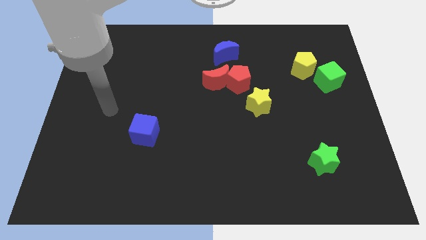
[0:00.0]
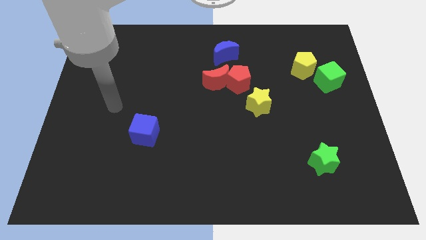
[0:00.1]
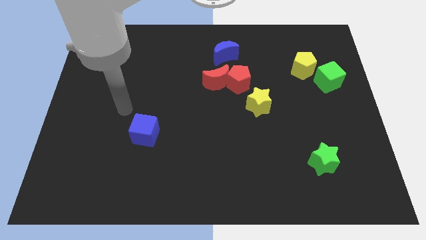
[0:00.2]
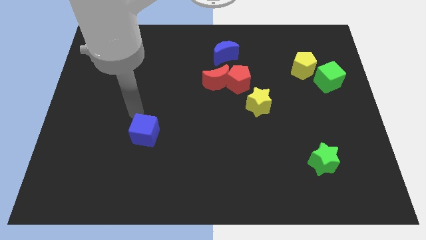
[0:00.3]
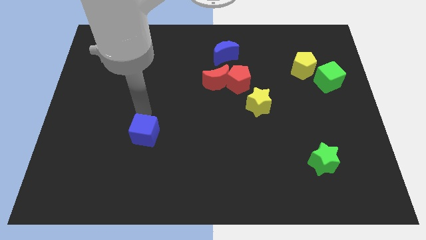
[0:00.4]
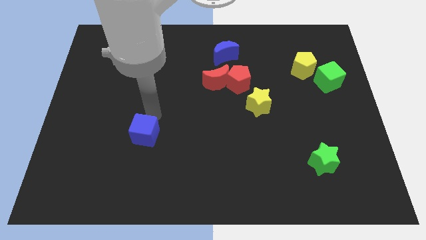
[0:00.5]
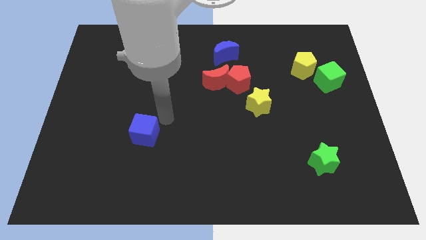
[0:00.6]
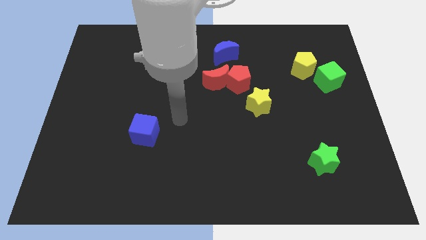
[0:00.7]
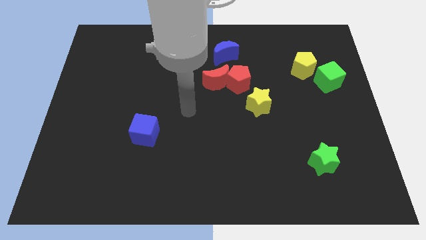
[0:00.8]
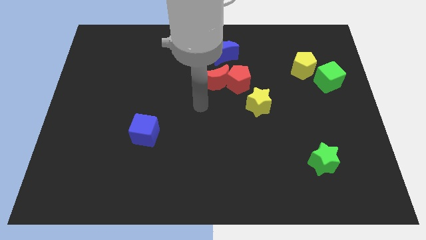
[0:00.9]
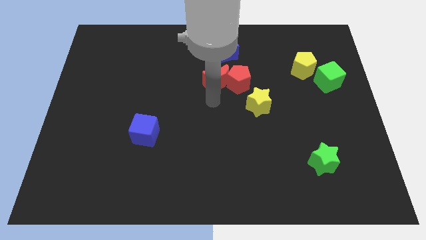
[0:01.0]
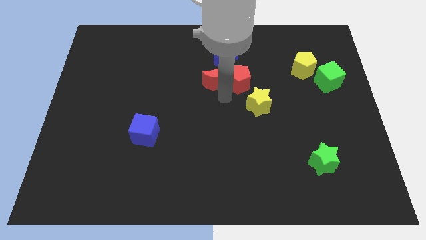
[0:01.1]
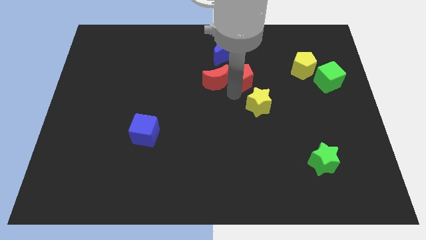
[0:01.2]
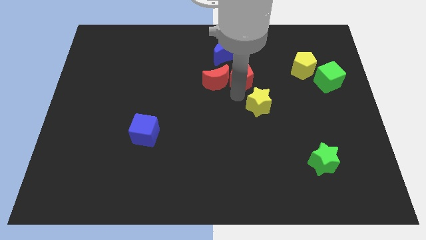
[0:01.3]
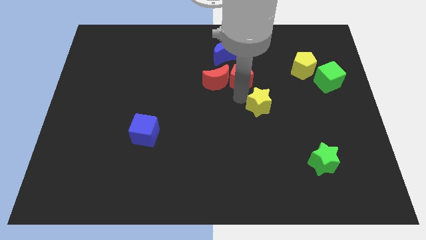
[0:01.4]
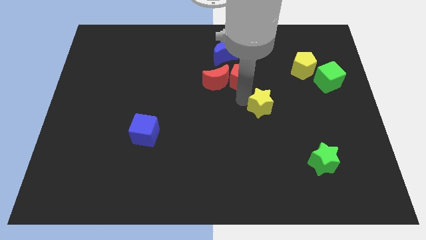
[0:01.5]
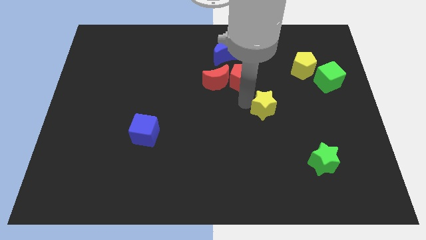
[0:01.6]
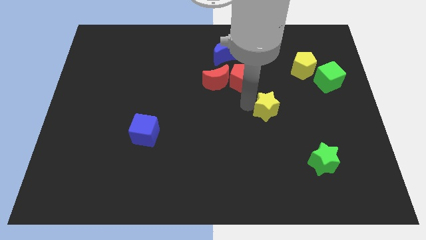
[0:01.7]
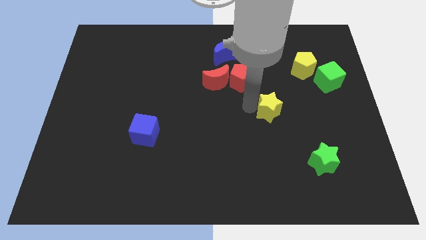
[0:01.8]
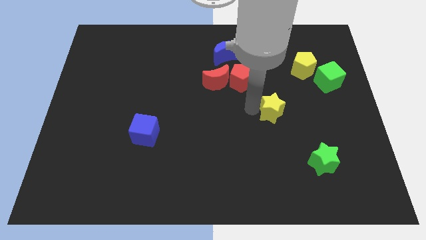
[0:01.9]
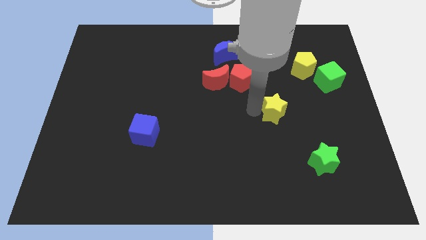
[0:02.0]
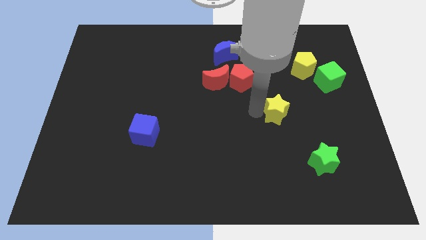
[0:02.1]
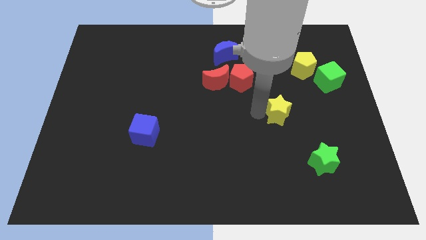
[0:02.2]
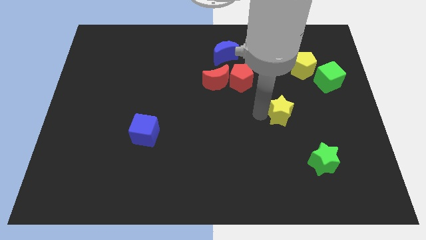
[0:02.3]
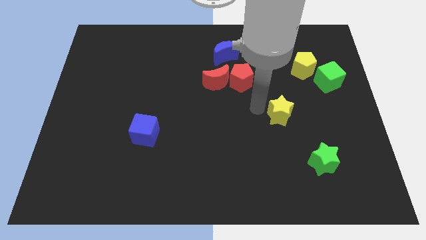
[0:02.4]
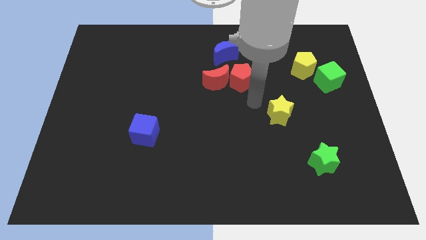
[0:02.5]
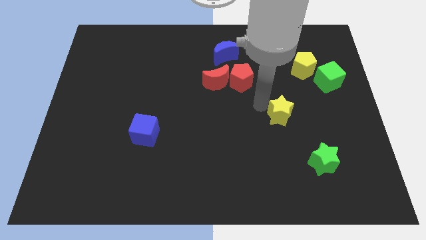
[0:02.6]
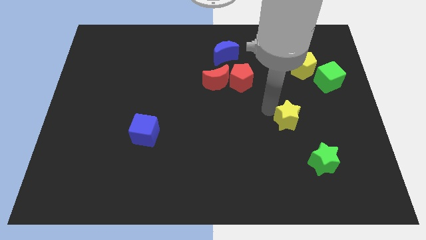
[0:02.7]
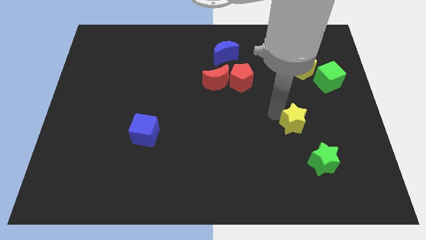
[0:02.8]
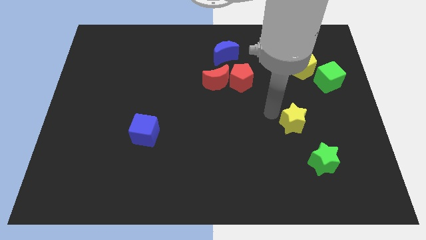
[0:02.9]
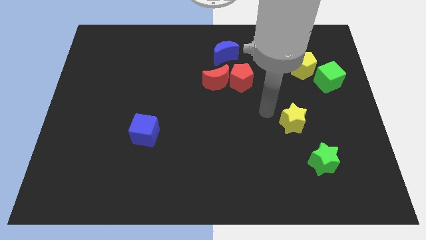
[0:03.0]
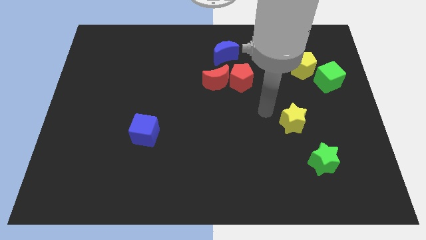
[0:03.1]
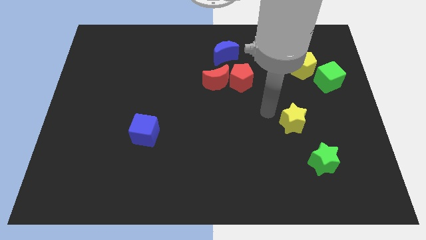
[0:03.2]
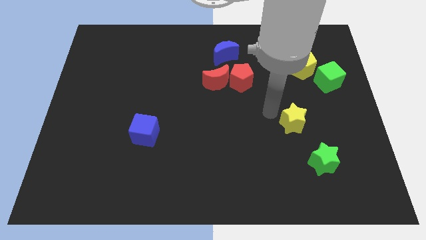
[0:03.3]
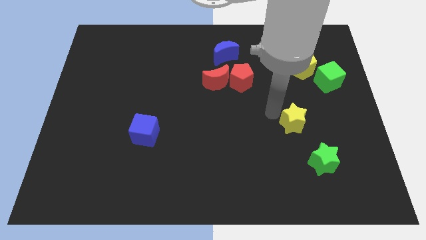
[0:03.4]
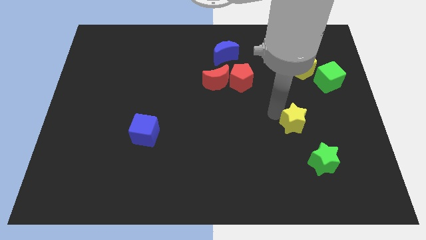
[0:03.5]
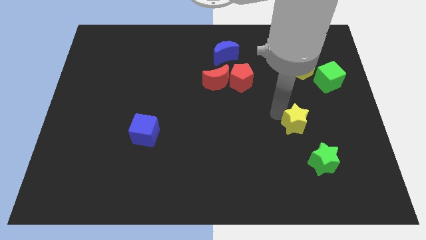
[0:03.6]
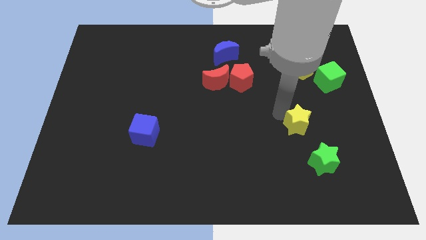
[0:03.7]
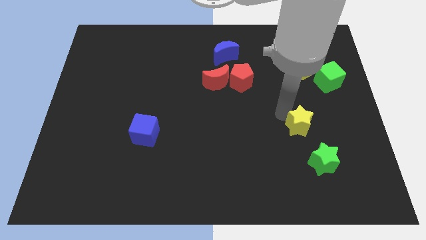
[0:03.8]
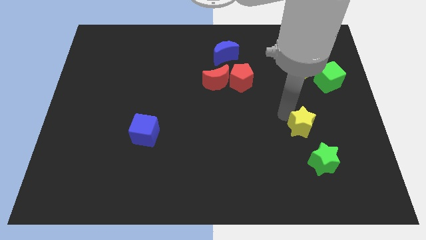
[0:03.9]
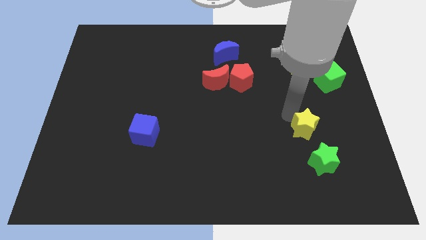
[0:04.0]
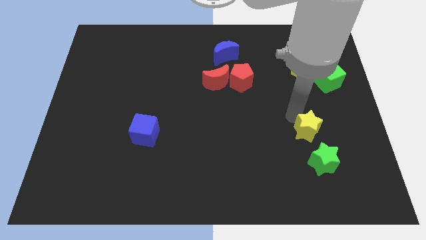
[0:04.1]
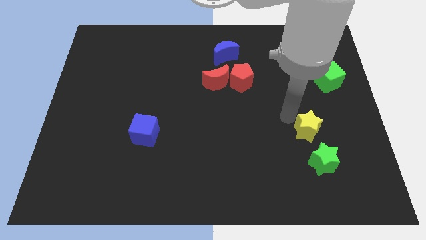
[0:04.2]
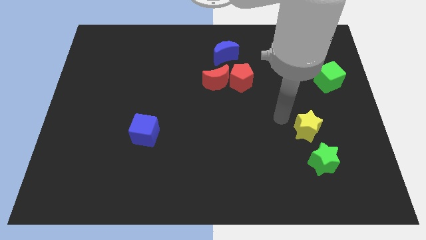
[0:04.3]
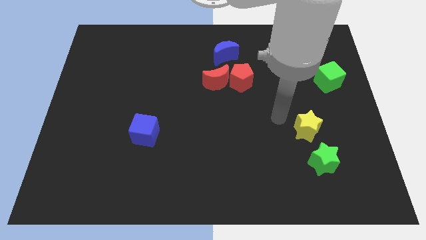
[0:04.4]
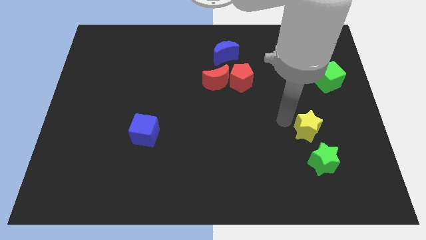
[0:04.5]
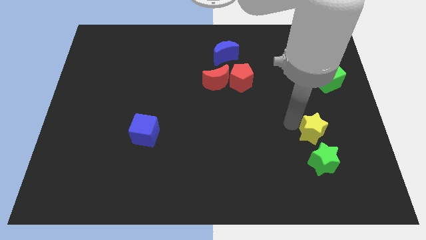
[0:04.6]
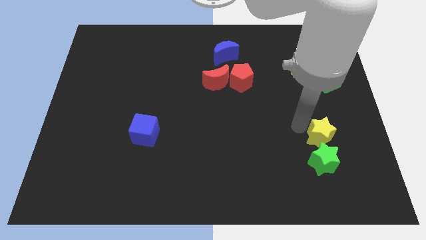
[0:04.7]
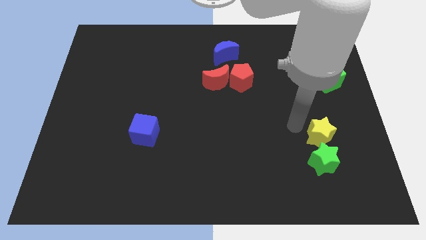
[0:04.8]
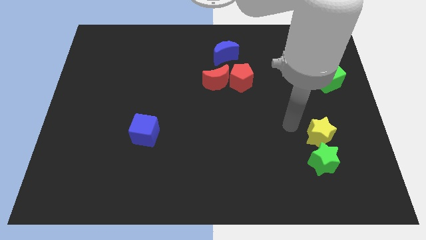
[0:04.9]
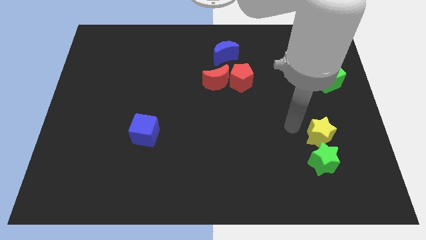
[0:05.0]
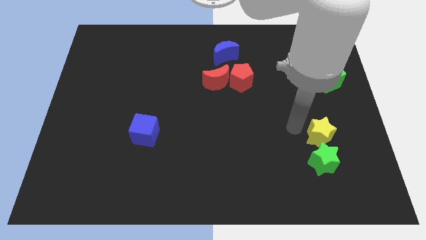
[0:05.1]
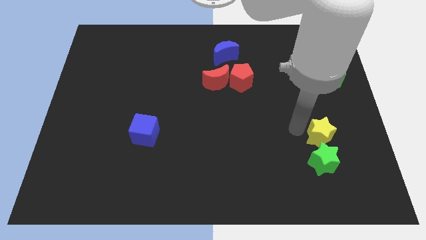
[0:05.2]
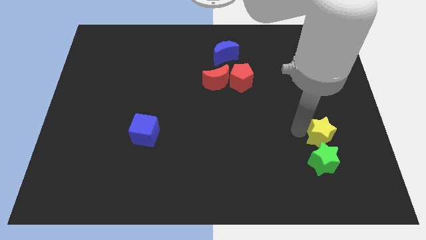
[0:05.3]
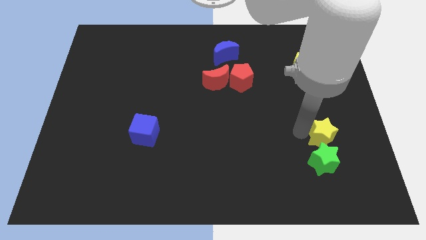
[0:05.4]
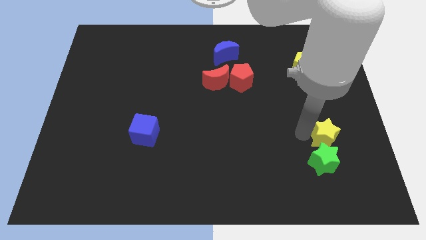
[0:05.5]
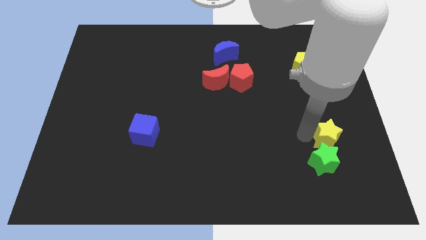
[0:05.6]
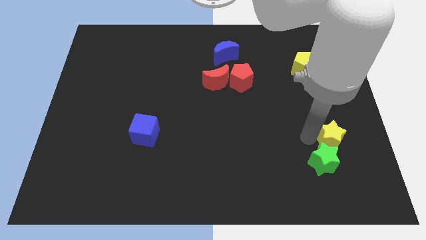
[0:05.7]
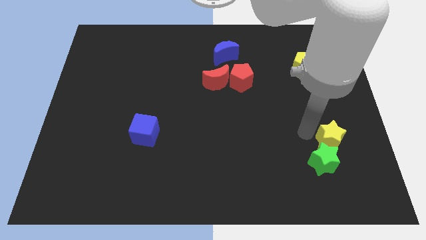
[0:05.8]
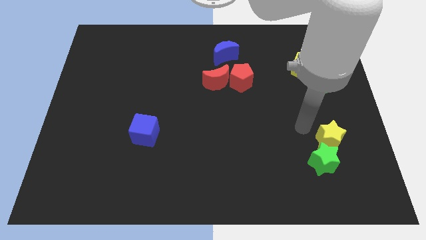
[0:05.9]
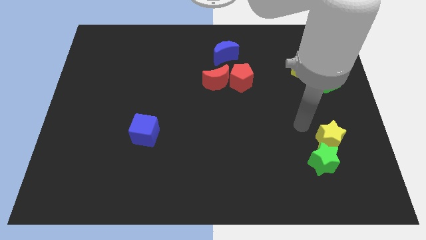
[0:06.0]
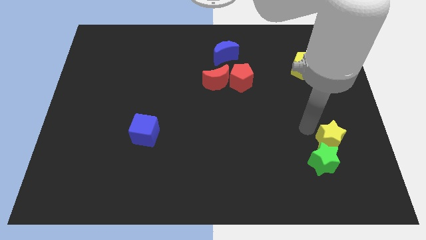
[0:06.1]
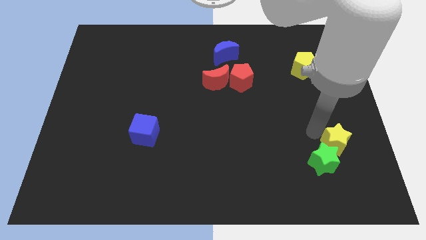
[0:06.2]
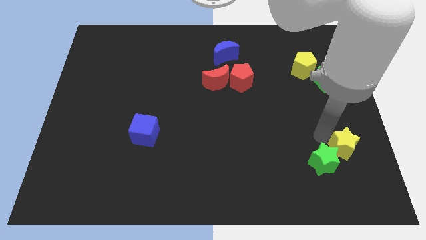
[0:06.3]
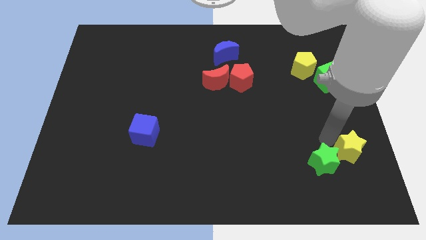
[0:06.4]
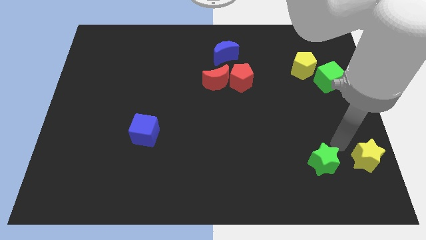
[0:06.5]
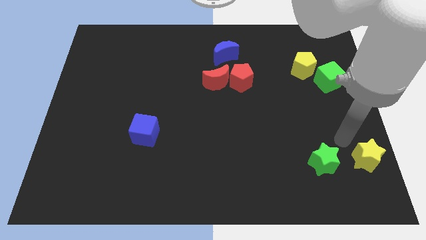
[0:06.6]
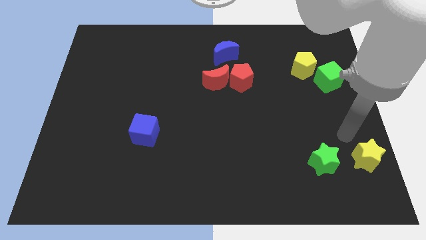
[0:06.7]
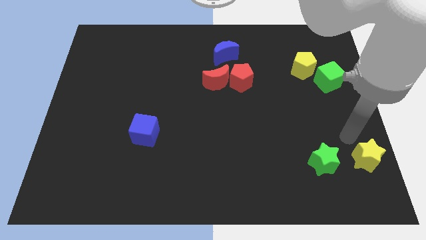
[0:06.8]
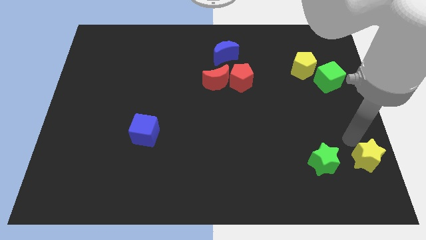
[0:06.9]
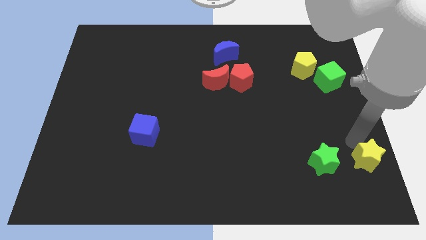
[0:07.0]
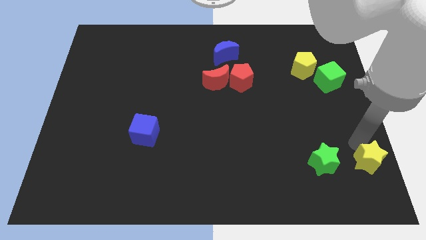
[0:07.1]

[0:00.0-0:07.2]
slide the yellow star to the bottom right of the board
